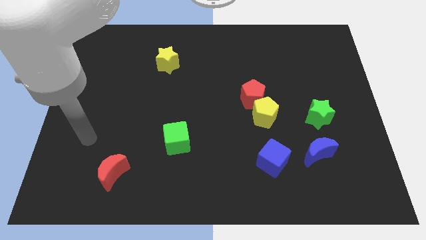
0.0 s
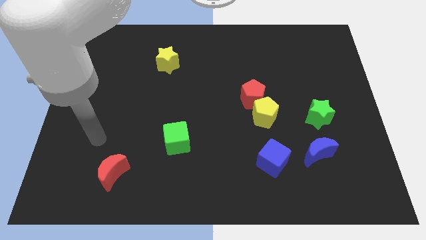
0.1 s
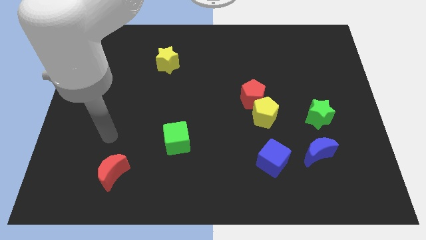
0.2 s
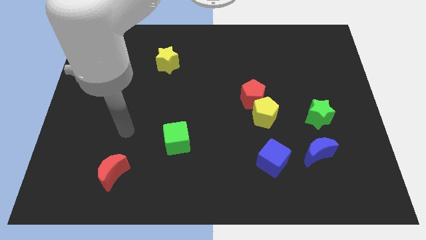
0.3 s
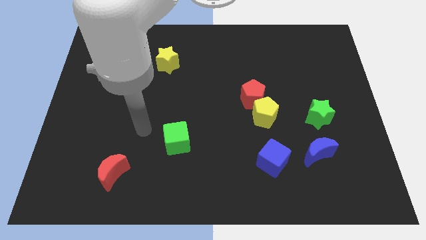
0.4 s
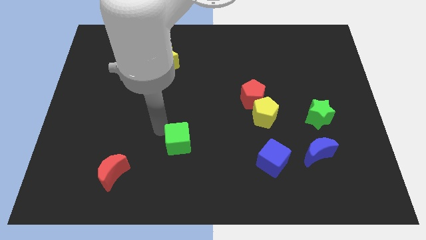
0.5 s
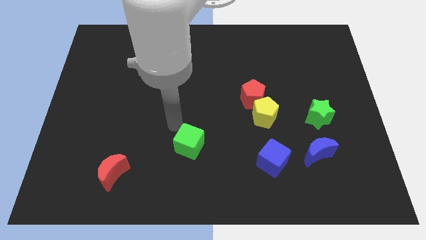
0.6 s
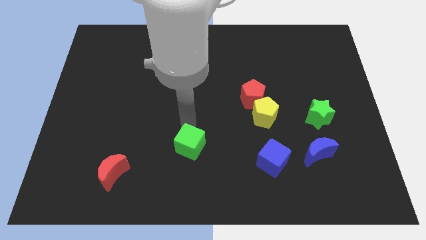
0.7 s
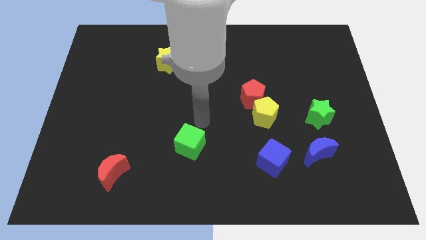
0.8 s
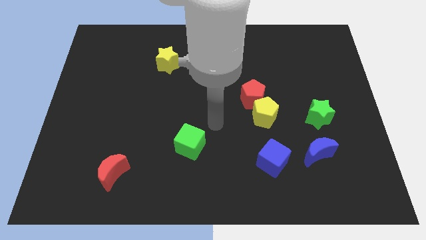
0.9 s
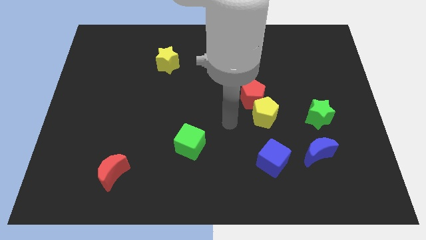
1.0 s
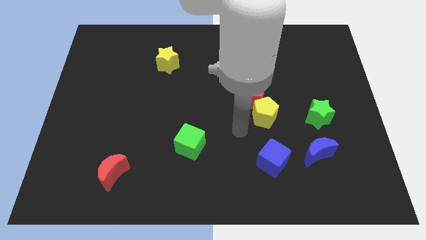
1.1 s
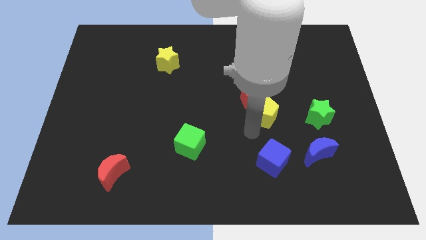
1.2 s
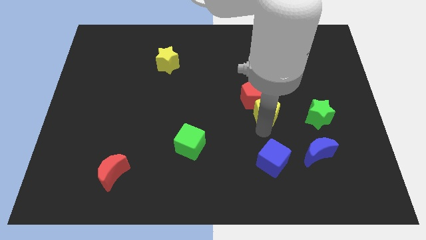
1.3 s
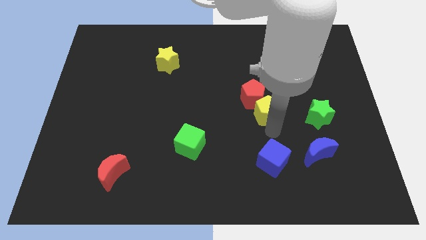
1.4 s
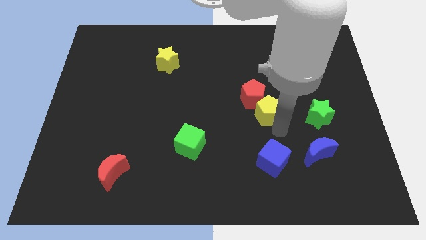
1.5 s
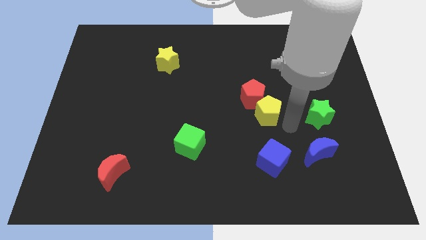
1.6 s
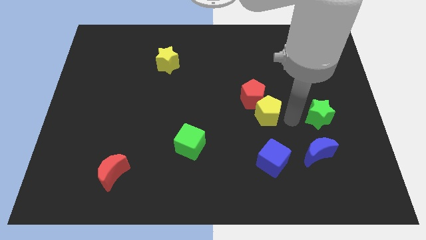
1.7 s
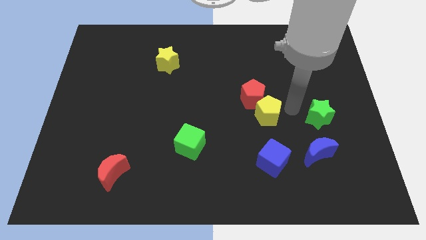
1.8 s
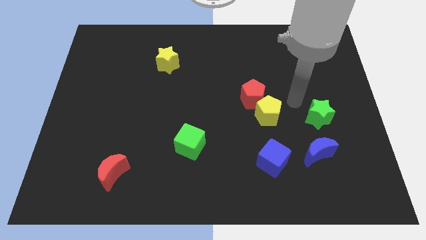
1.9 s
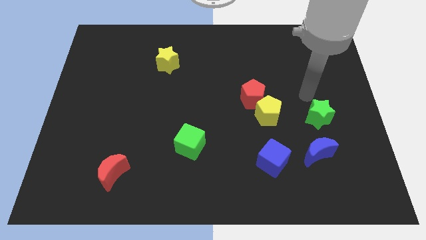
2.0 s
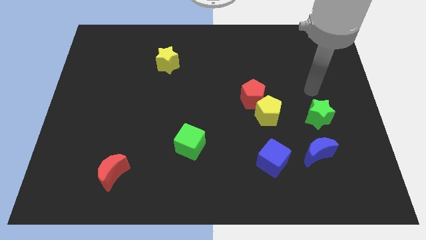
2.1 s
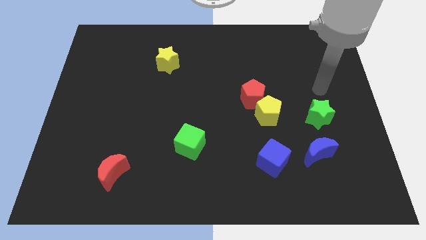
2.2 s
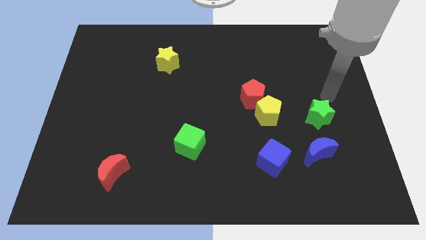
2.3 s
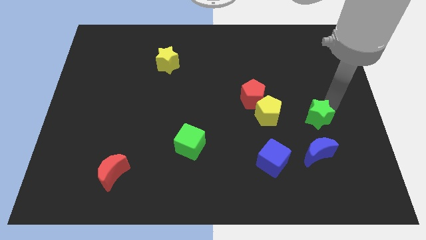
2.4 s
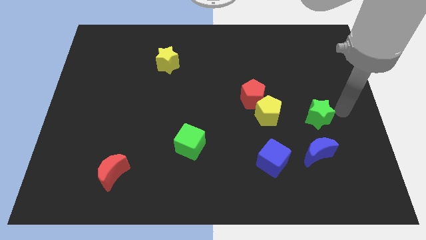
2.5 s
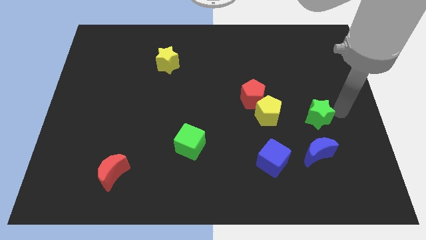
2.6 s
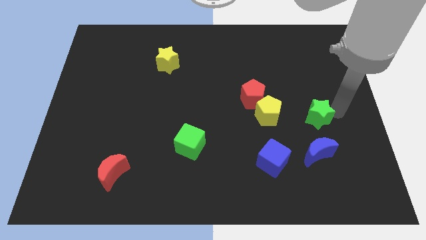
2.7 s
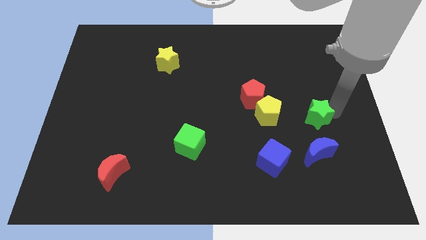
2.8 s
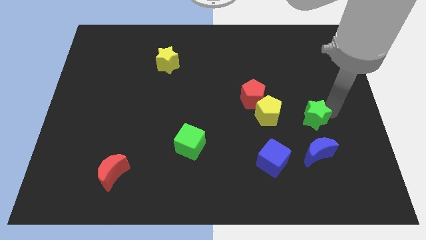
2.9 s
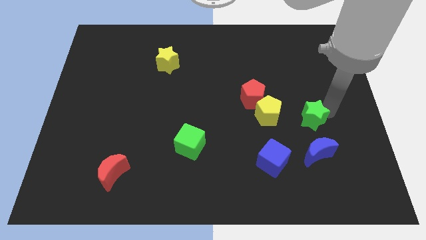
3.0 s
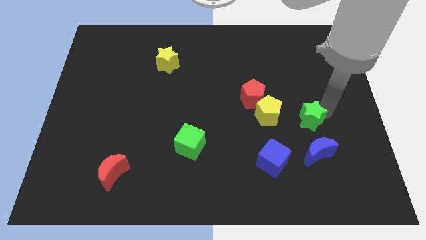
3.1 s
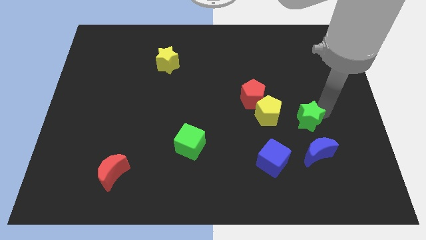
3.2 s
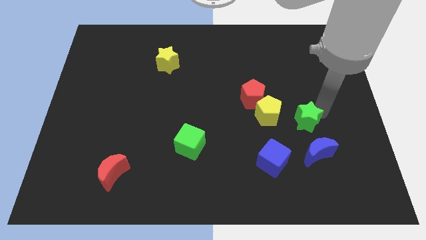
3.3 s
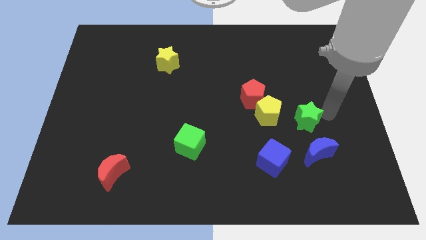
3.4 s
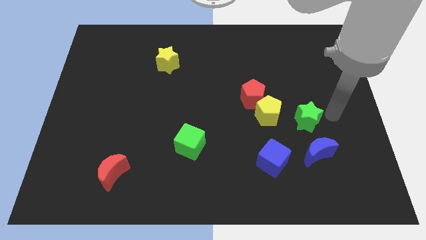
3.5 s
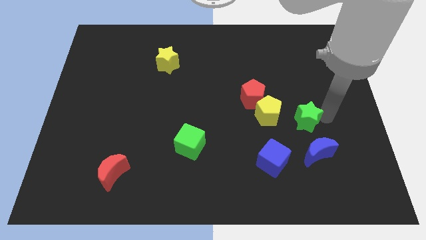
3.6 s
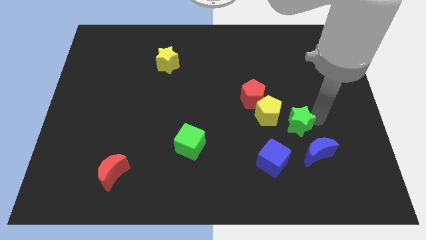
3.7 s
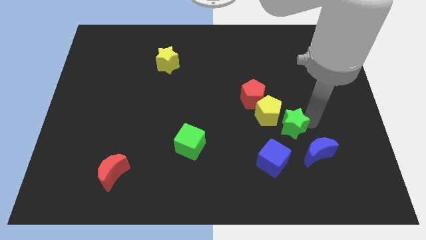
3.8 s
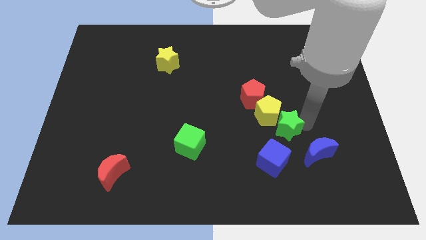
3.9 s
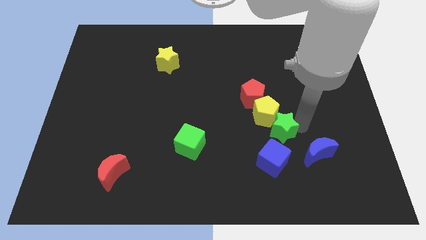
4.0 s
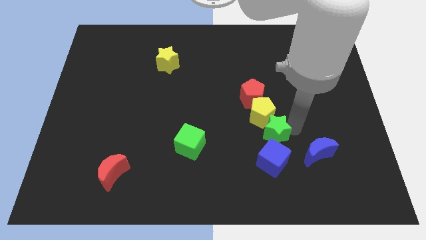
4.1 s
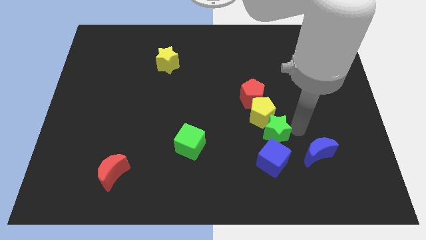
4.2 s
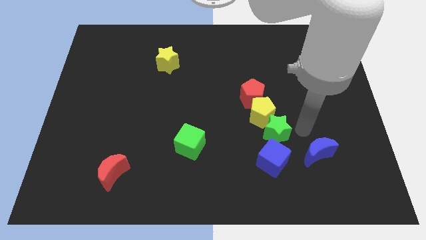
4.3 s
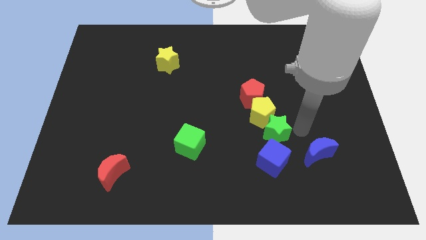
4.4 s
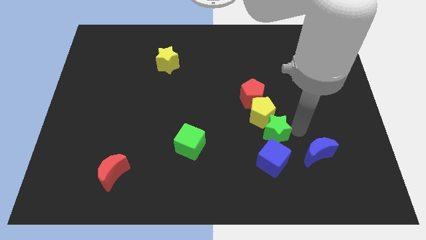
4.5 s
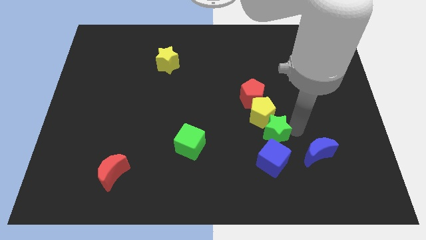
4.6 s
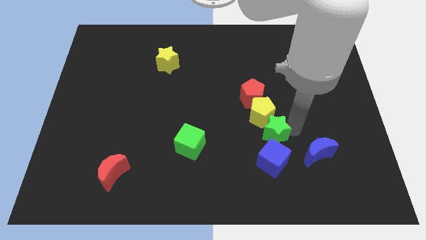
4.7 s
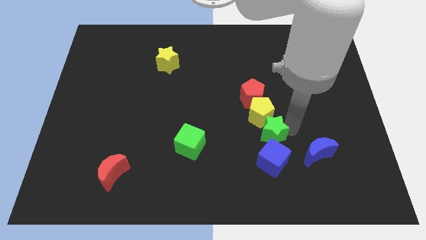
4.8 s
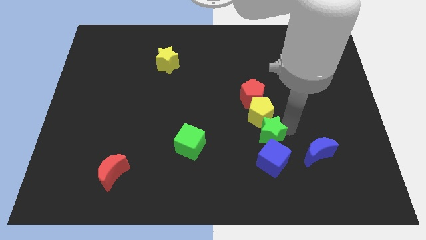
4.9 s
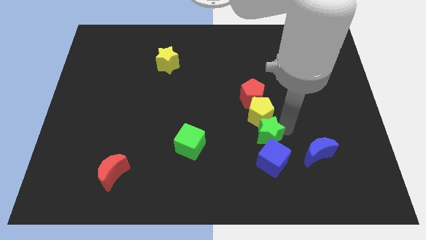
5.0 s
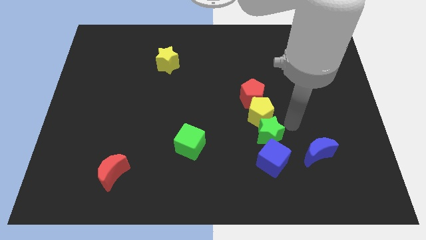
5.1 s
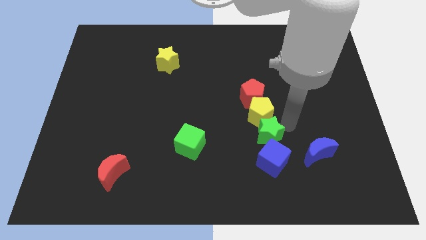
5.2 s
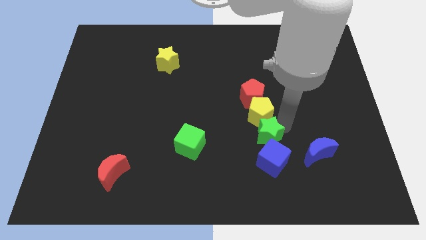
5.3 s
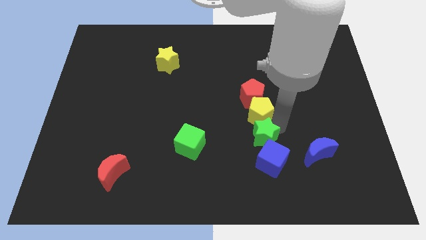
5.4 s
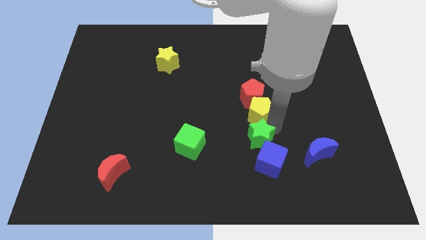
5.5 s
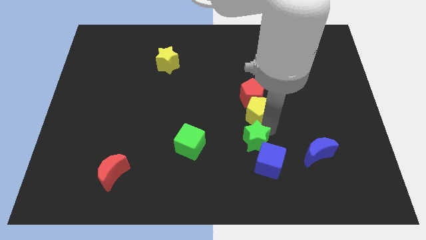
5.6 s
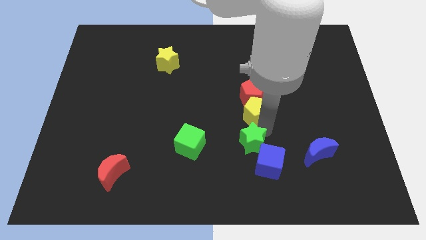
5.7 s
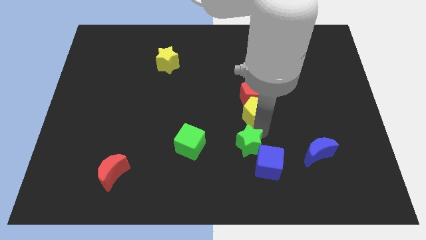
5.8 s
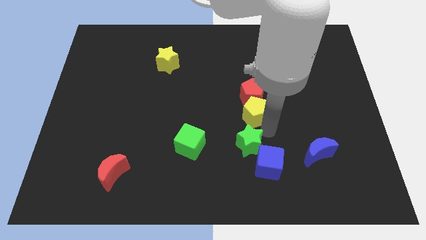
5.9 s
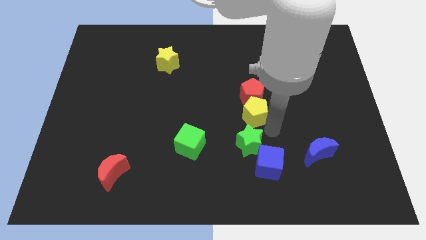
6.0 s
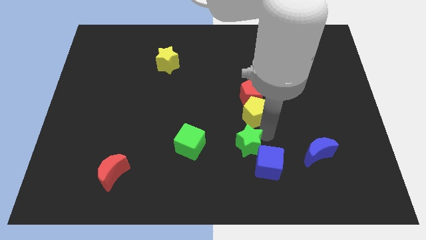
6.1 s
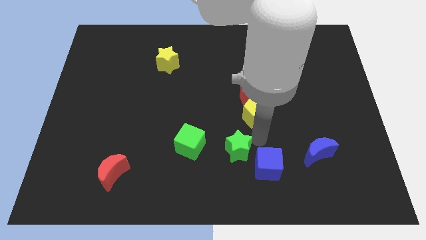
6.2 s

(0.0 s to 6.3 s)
put the green star to the left of the blue cube
